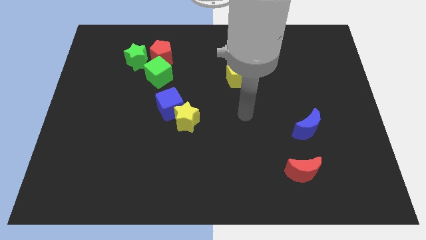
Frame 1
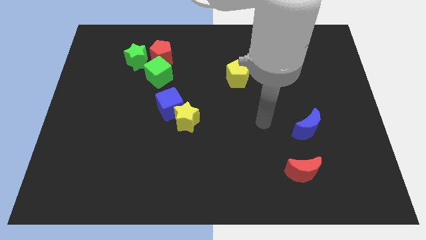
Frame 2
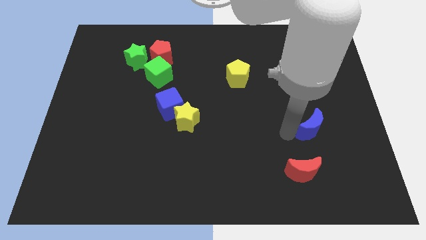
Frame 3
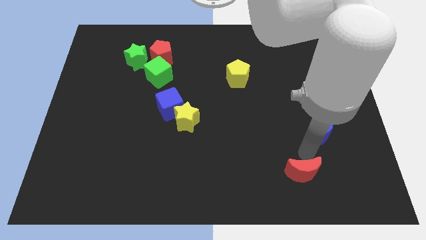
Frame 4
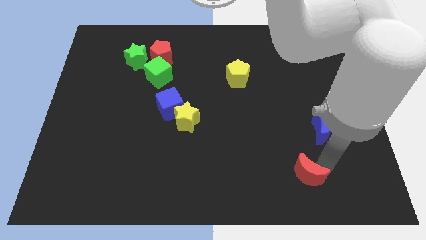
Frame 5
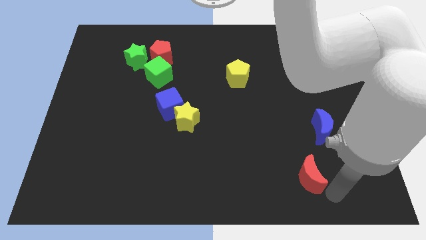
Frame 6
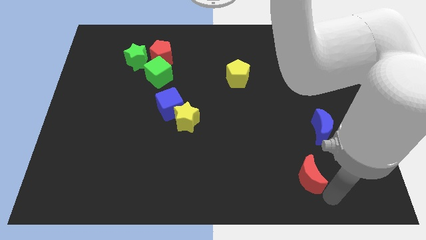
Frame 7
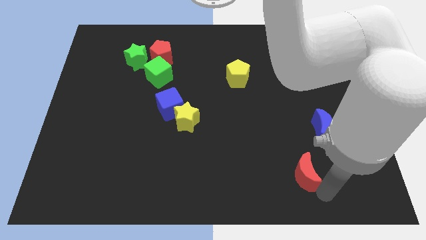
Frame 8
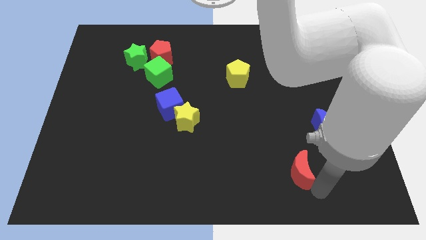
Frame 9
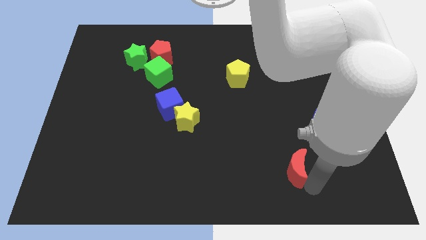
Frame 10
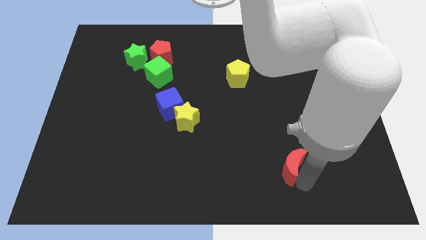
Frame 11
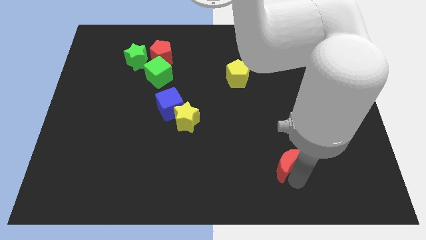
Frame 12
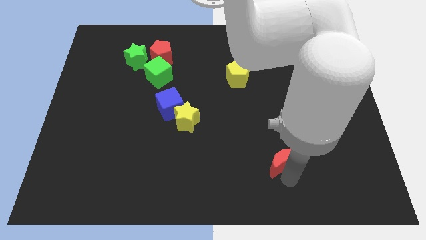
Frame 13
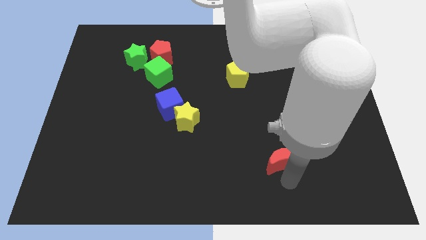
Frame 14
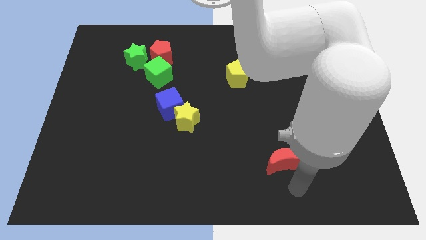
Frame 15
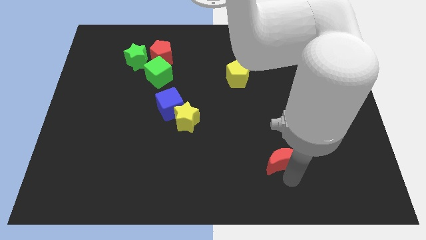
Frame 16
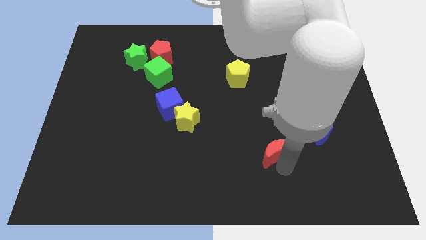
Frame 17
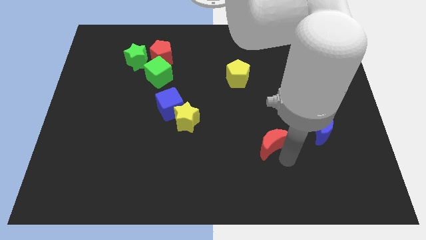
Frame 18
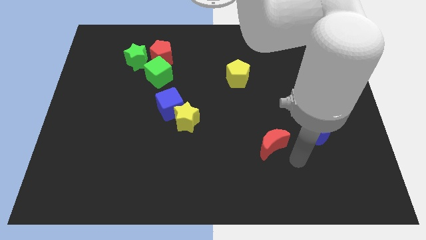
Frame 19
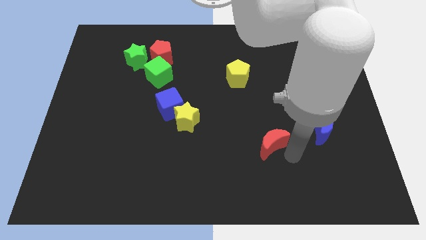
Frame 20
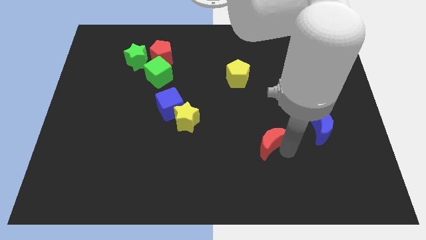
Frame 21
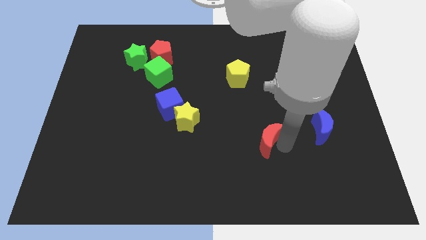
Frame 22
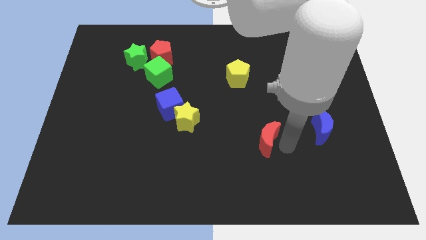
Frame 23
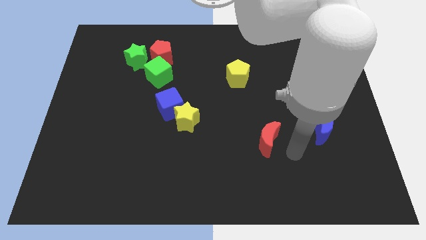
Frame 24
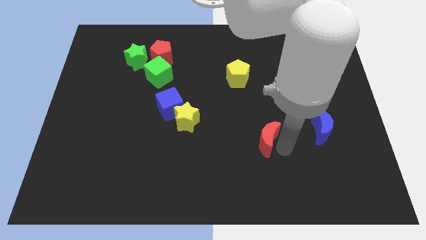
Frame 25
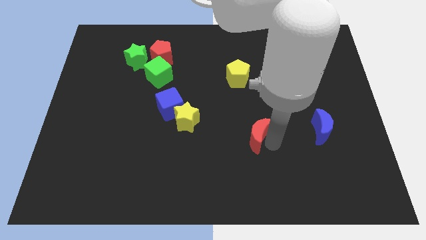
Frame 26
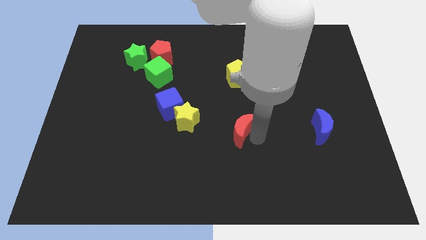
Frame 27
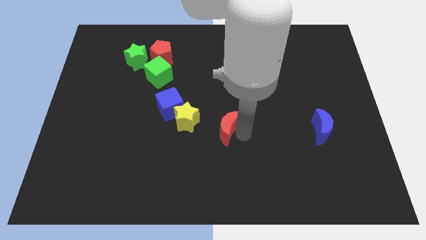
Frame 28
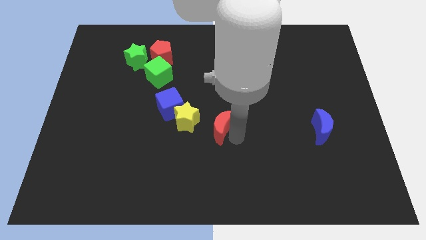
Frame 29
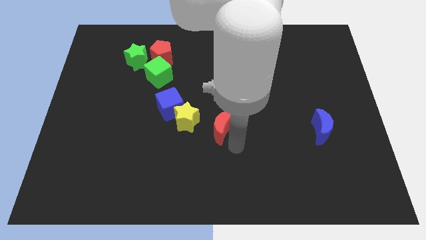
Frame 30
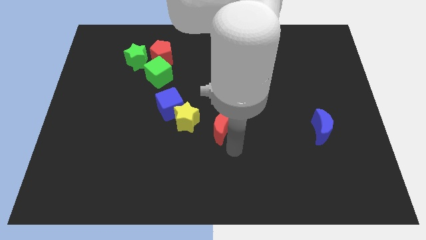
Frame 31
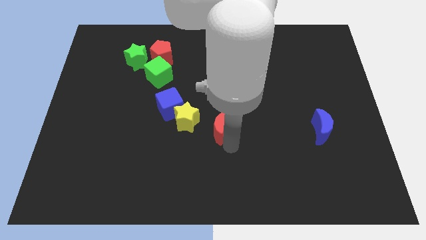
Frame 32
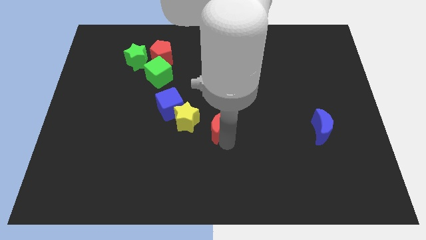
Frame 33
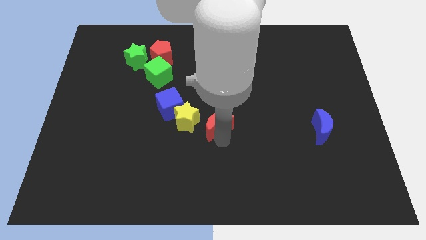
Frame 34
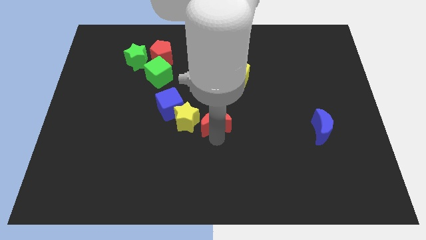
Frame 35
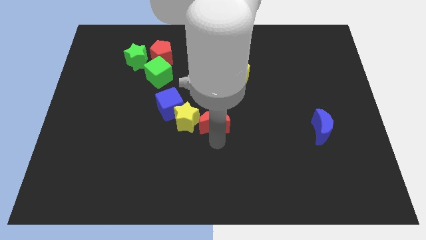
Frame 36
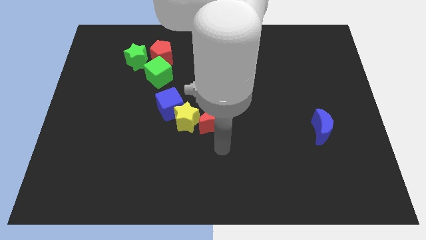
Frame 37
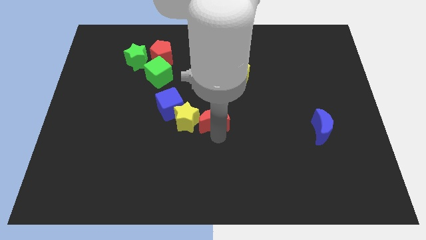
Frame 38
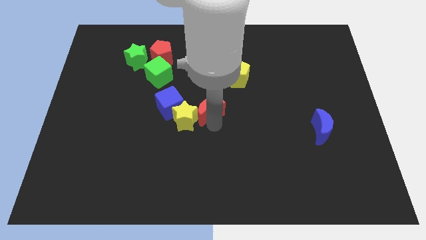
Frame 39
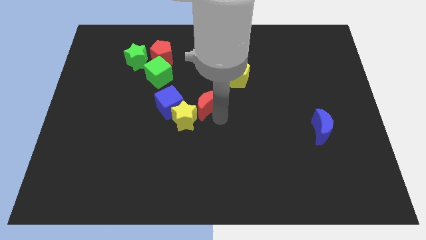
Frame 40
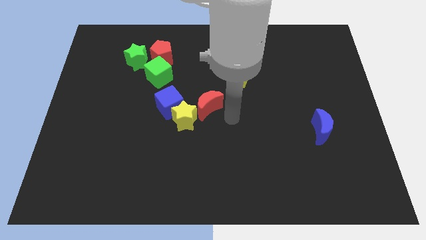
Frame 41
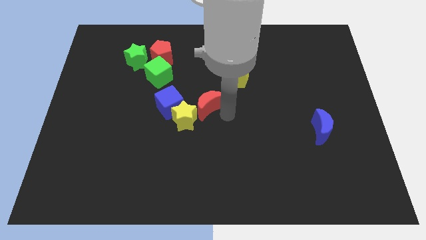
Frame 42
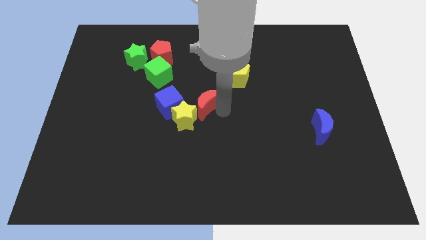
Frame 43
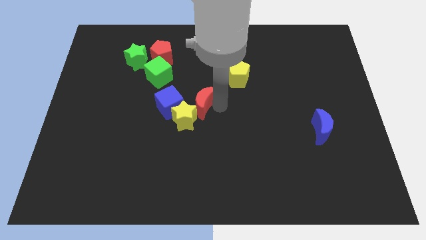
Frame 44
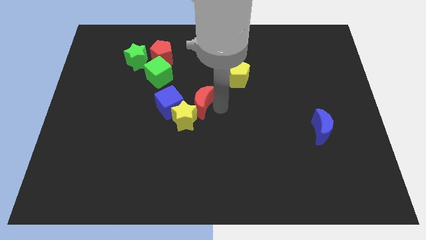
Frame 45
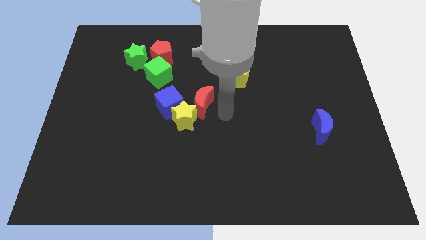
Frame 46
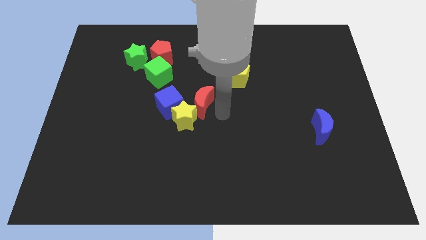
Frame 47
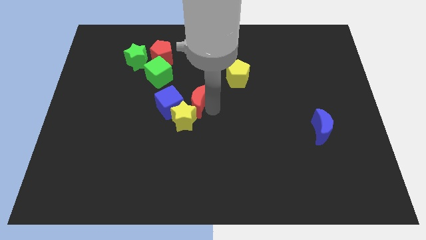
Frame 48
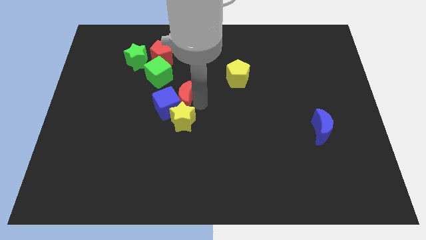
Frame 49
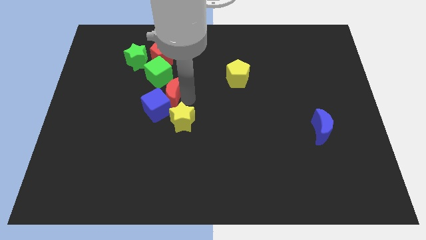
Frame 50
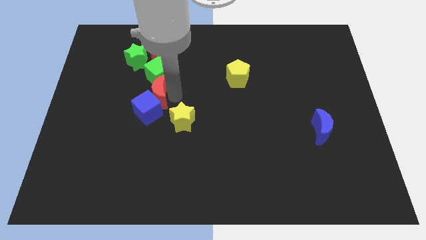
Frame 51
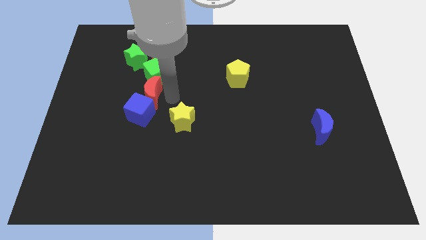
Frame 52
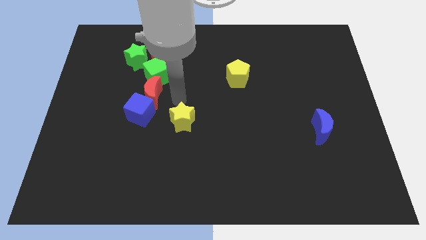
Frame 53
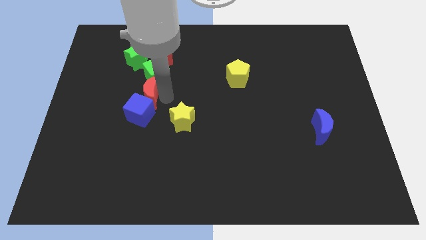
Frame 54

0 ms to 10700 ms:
put the red moon below the green star

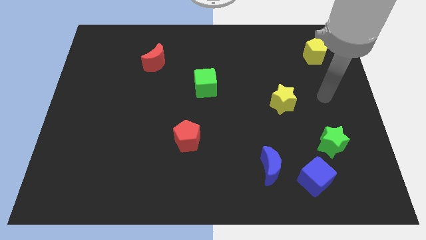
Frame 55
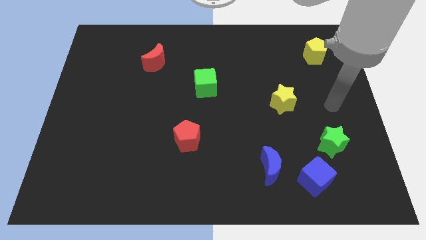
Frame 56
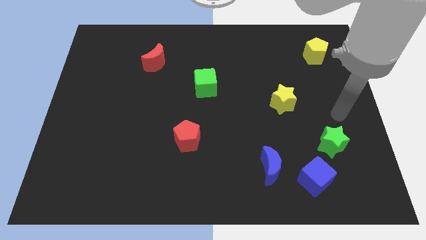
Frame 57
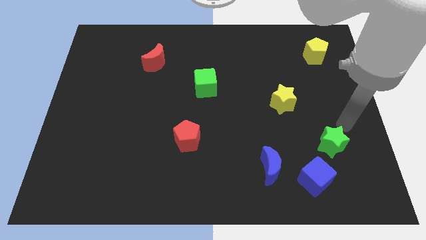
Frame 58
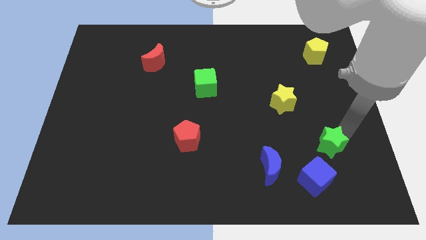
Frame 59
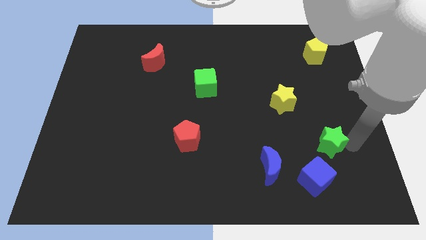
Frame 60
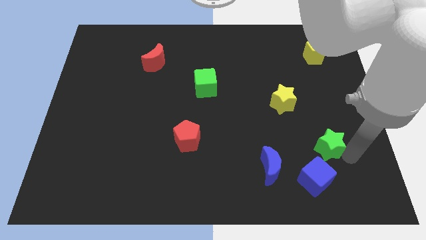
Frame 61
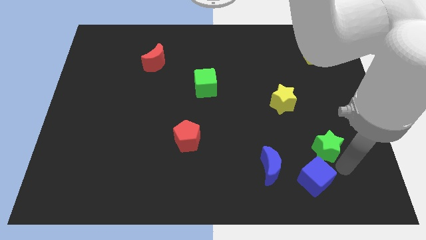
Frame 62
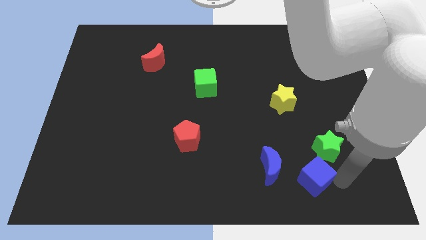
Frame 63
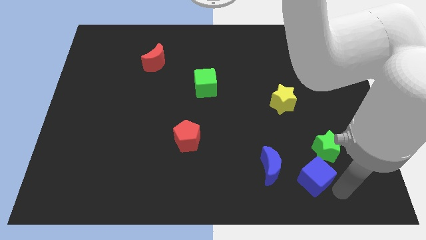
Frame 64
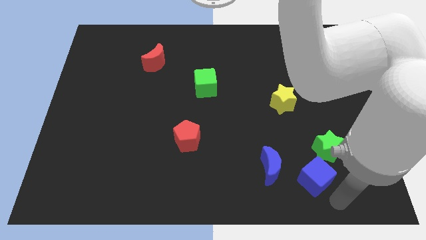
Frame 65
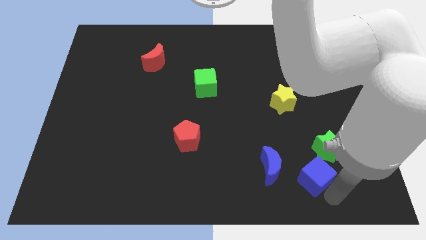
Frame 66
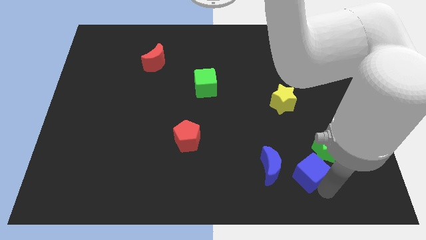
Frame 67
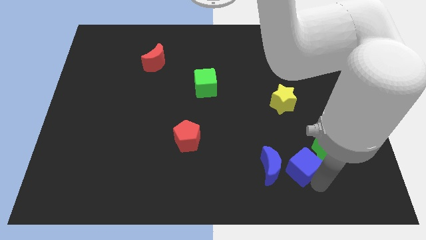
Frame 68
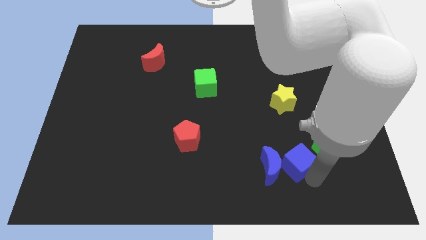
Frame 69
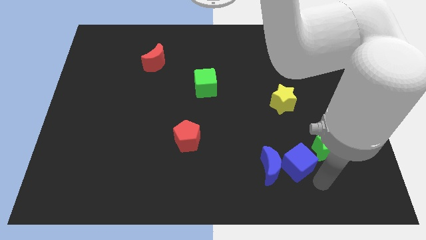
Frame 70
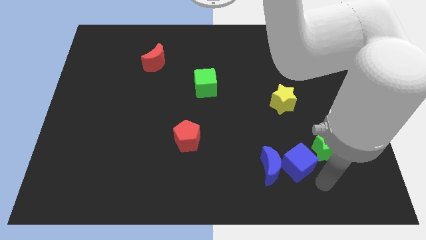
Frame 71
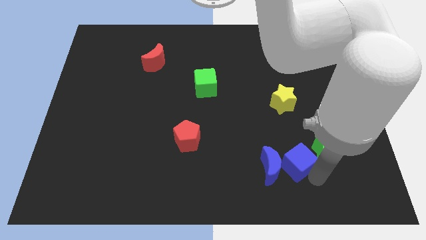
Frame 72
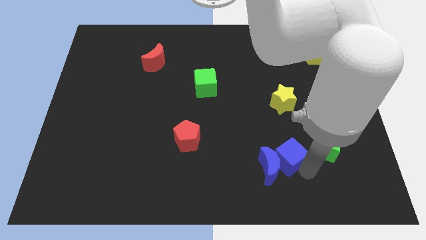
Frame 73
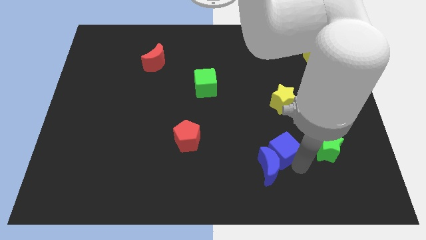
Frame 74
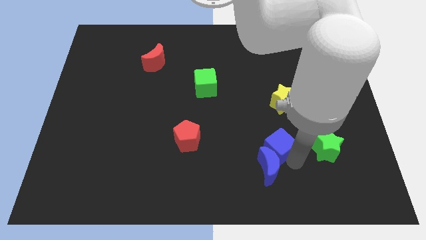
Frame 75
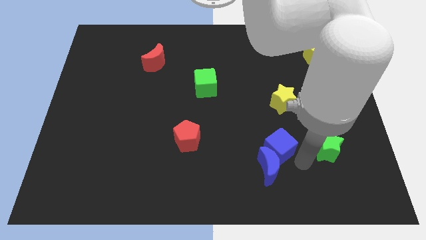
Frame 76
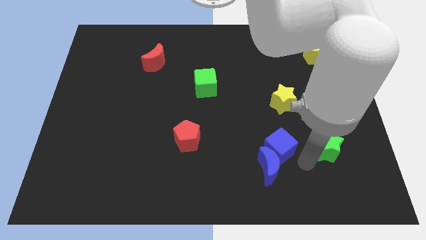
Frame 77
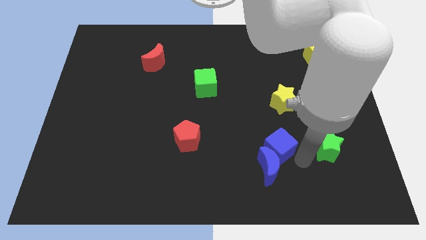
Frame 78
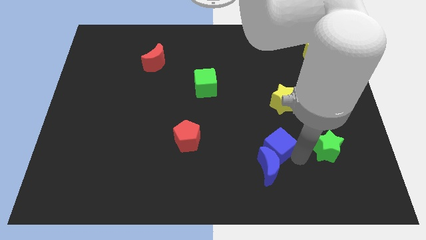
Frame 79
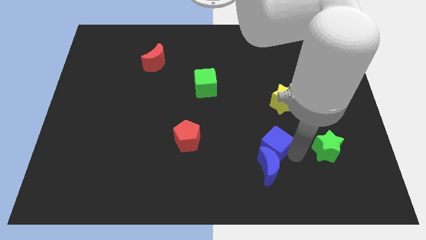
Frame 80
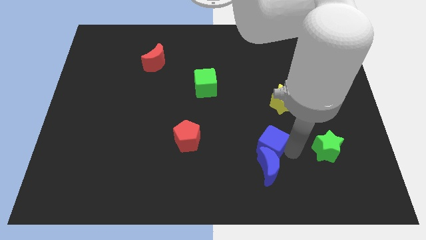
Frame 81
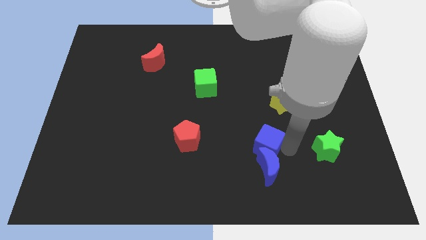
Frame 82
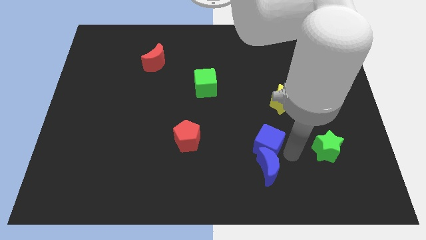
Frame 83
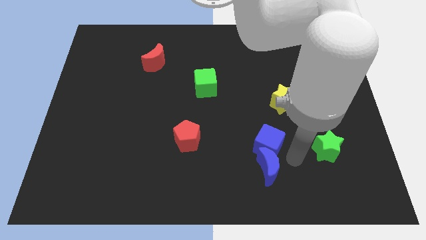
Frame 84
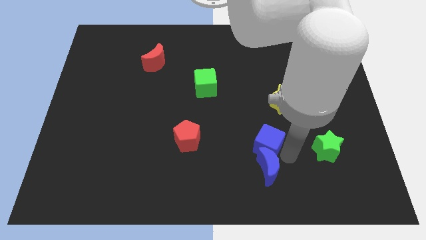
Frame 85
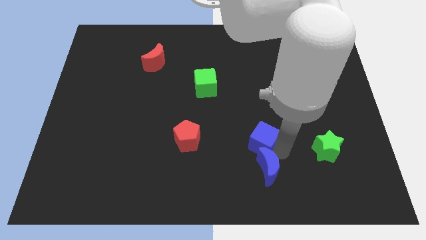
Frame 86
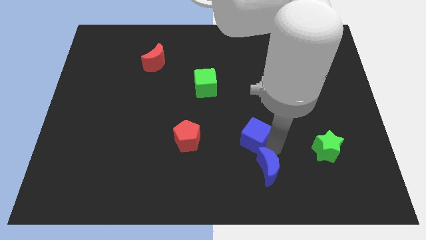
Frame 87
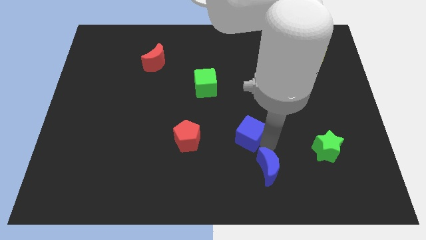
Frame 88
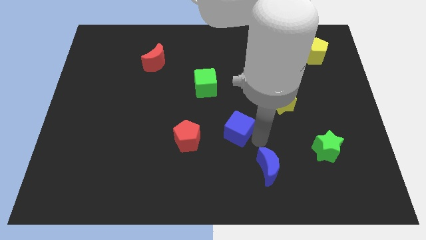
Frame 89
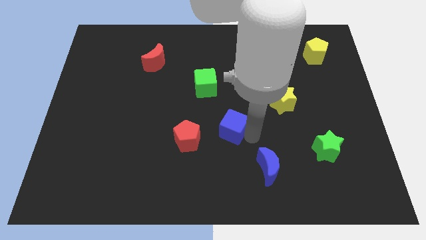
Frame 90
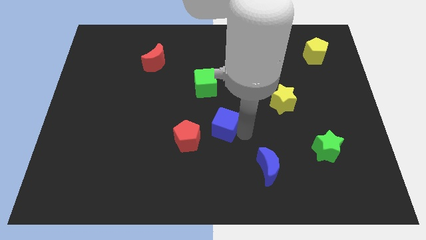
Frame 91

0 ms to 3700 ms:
move the blue cube to the top right side of the red pentagon
